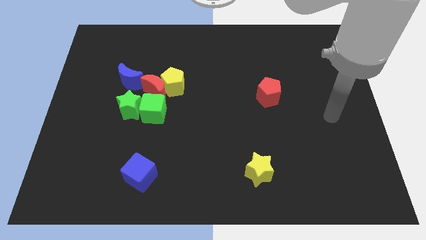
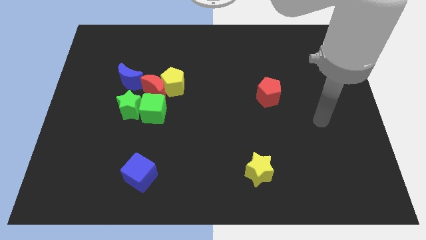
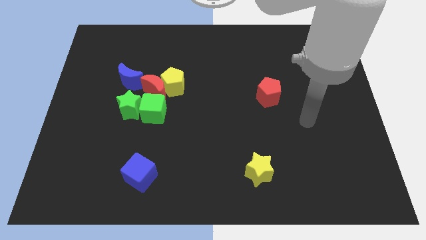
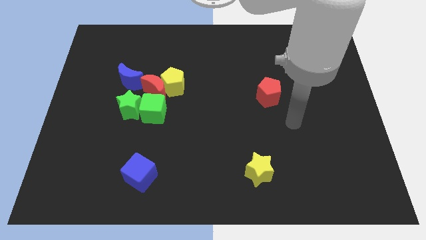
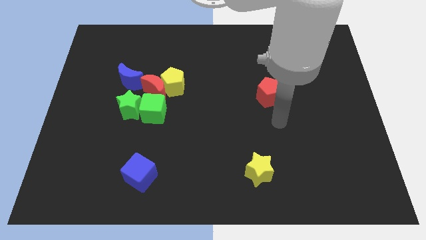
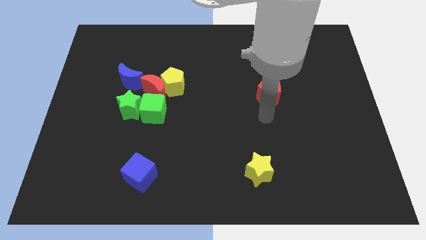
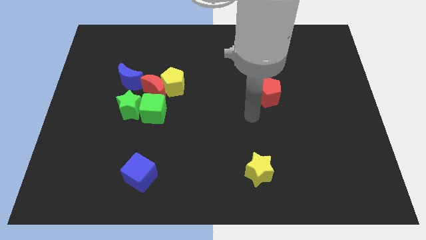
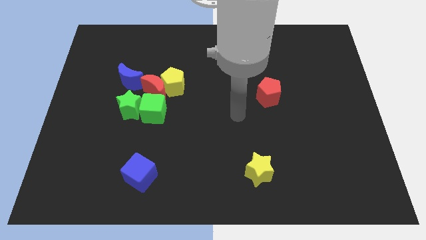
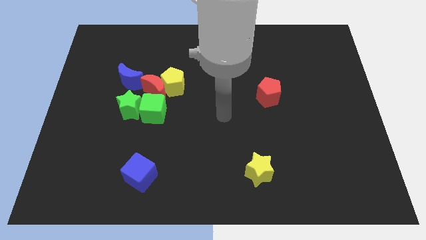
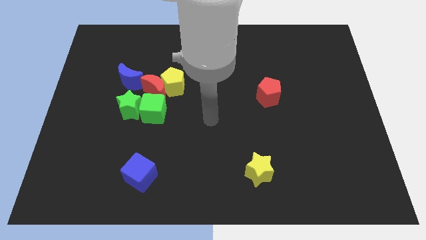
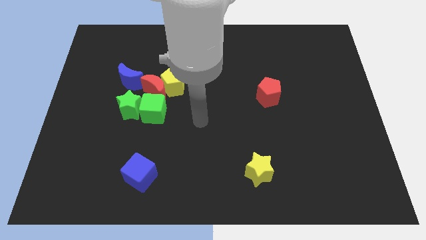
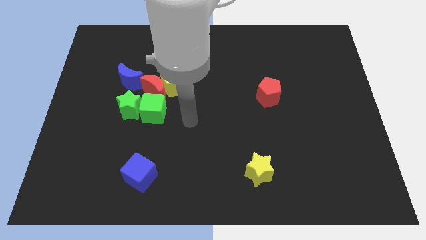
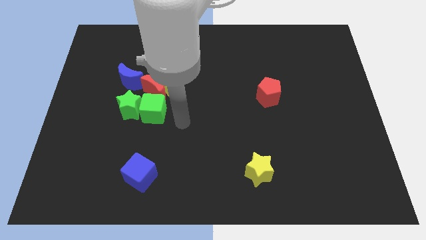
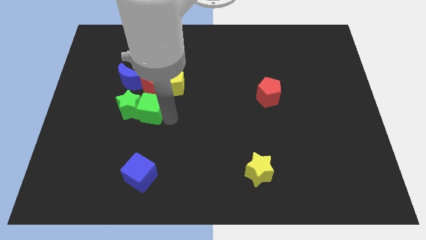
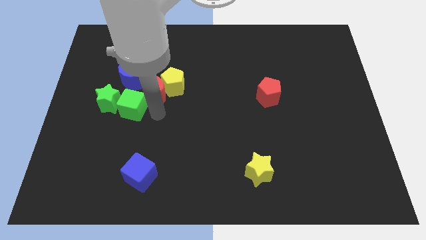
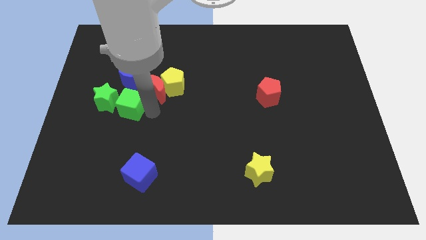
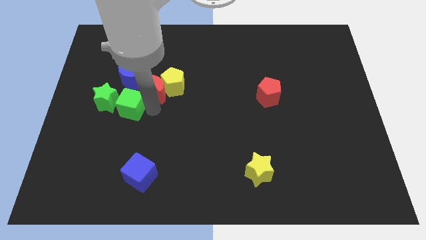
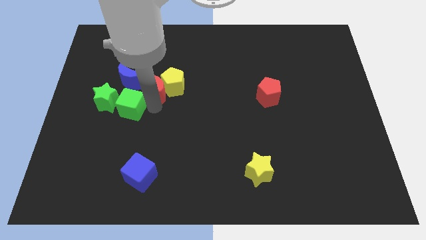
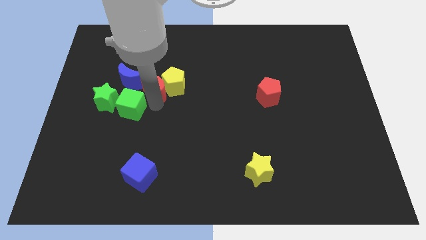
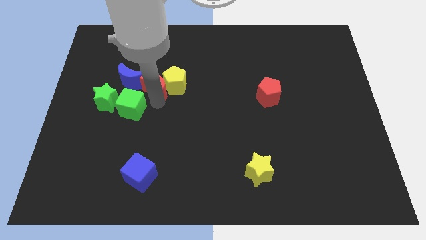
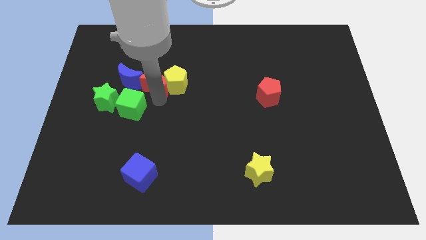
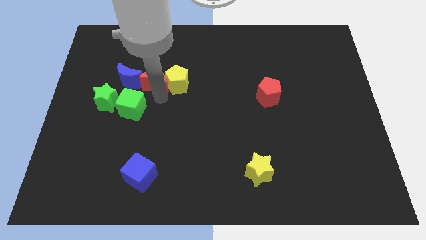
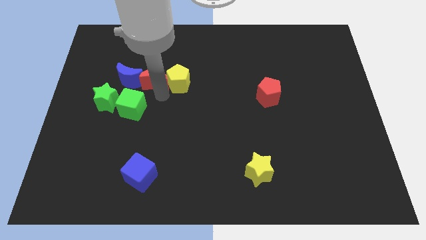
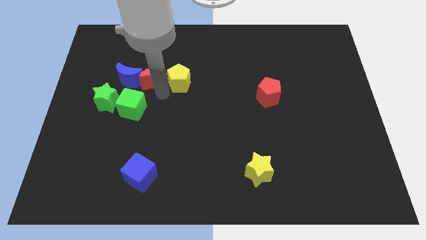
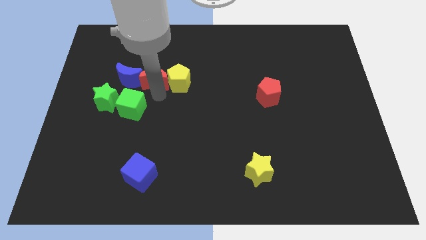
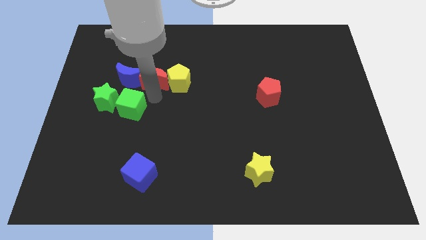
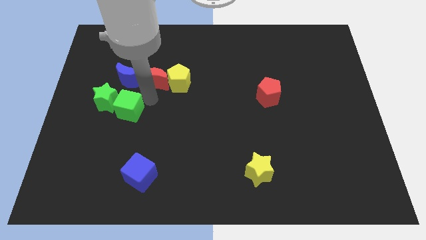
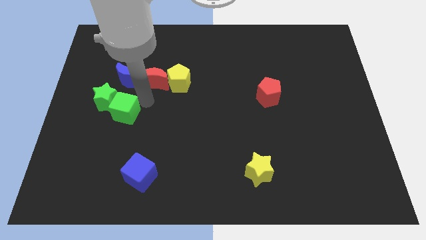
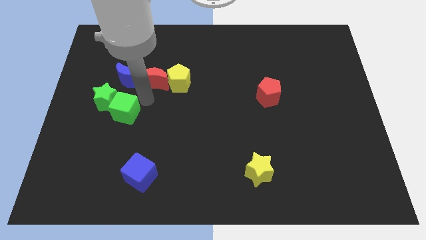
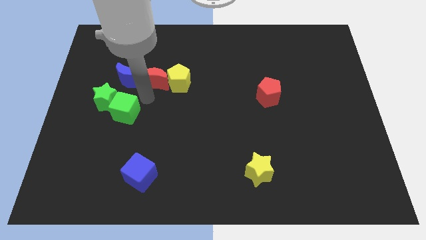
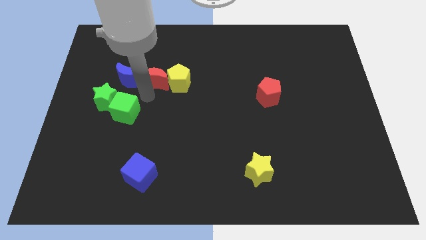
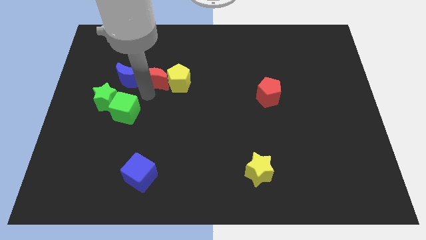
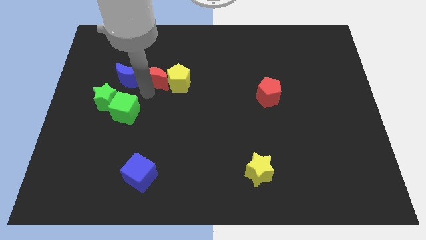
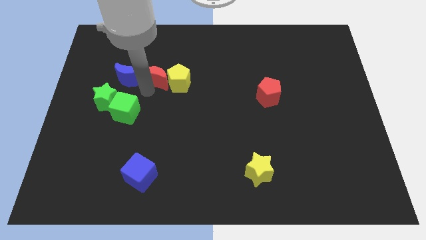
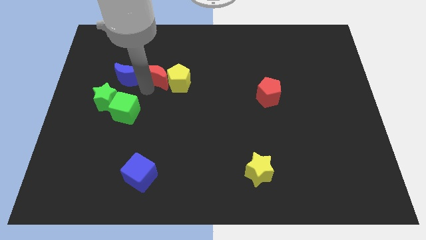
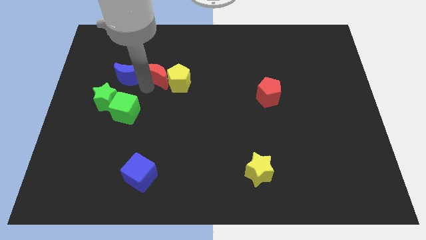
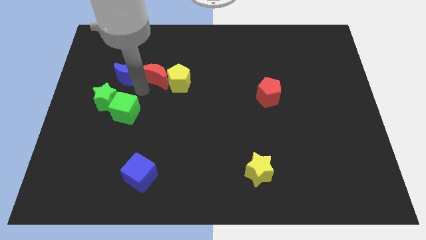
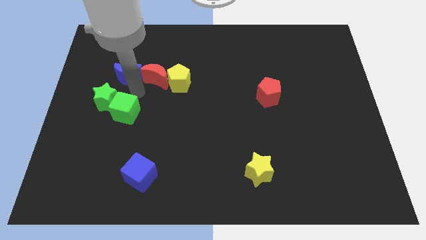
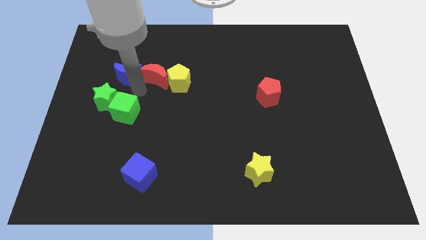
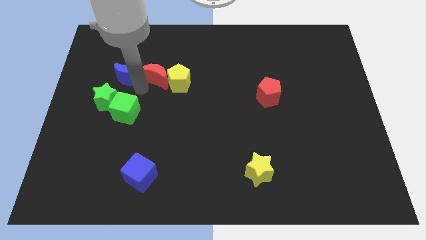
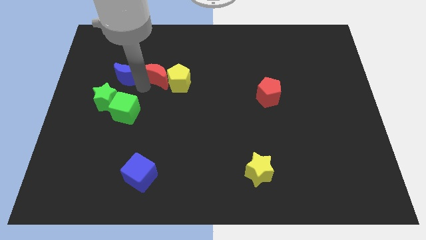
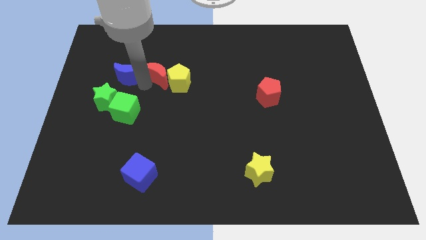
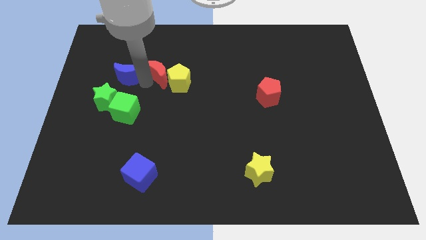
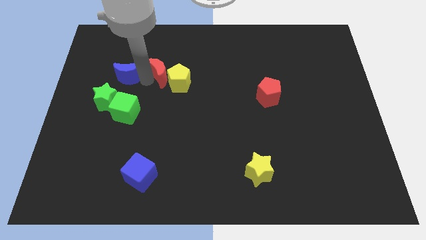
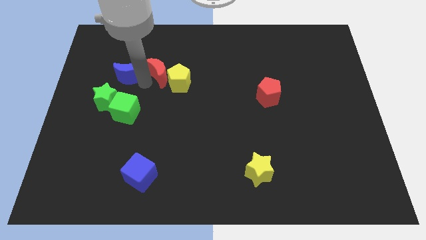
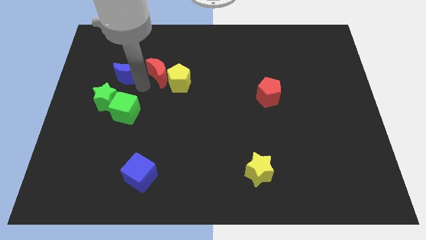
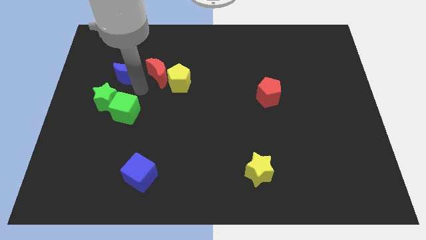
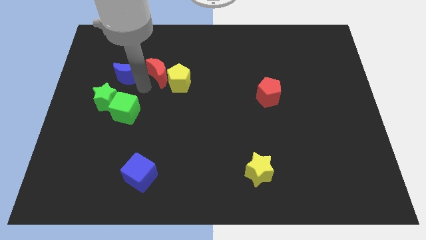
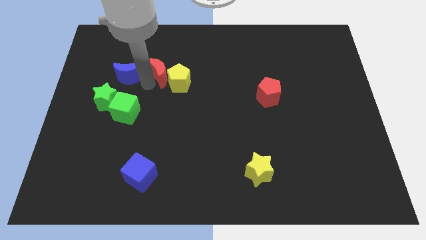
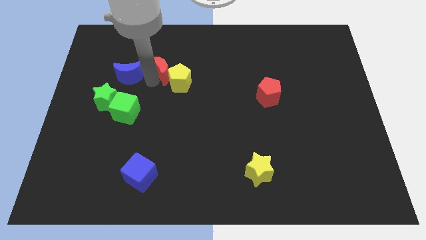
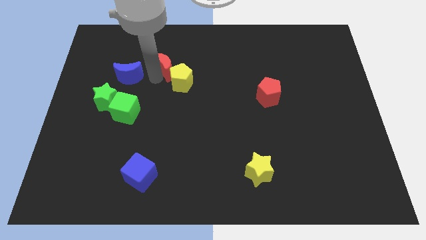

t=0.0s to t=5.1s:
move the red moon away from the clump

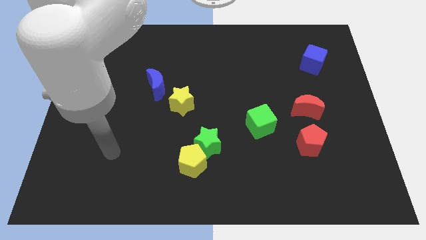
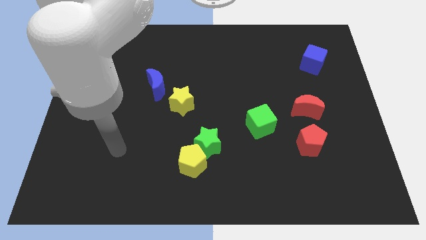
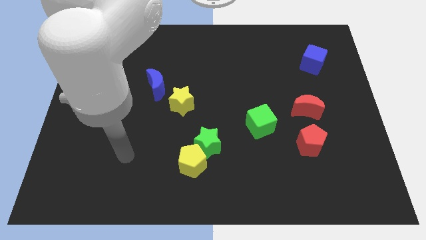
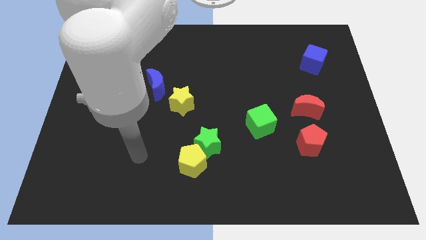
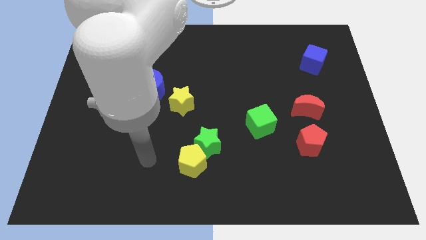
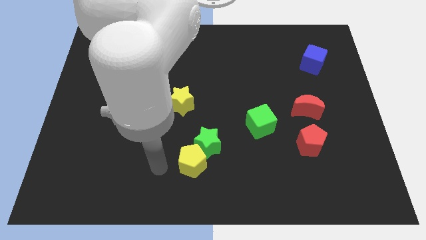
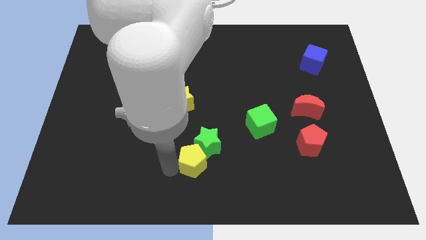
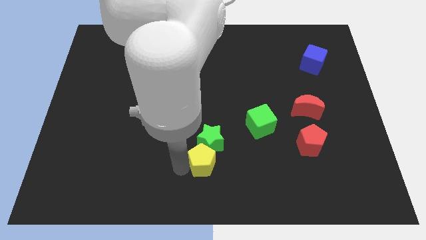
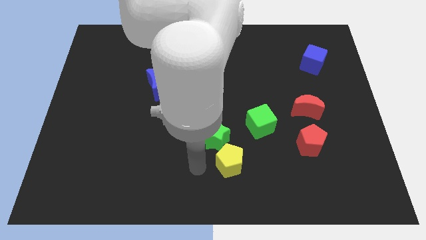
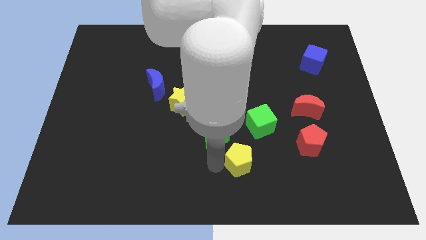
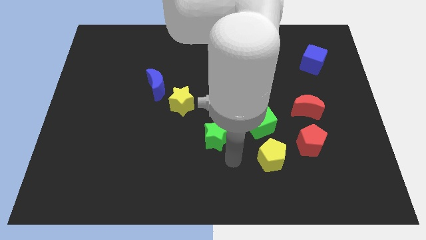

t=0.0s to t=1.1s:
separate the green star from the yellow pentagon

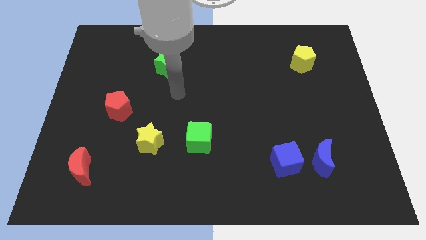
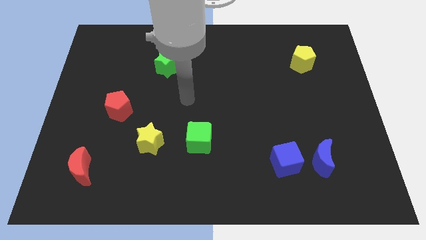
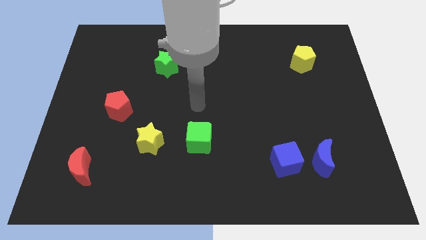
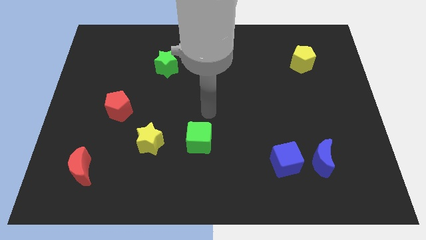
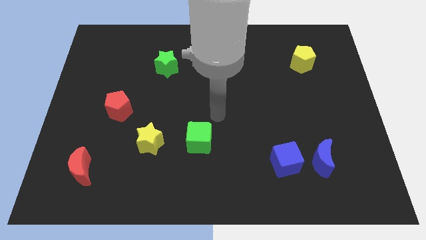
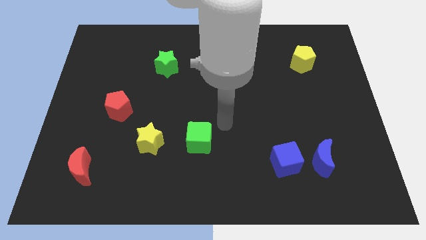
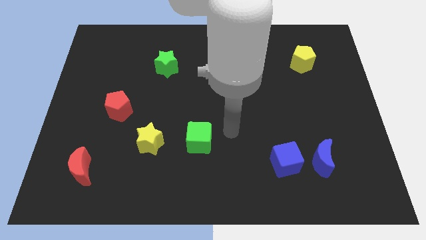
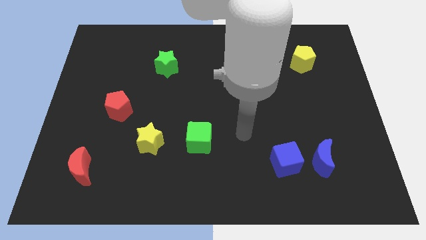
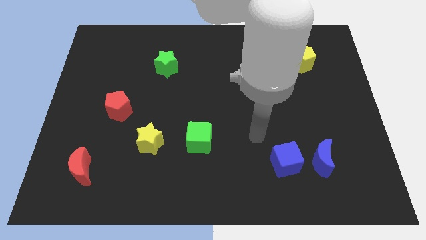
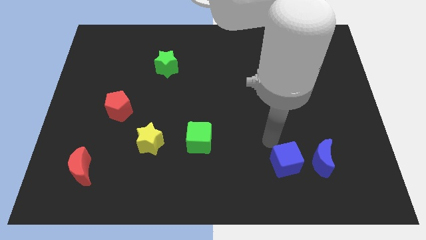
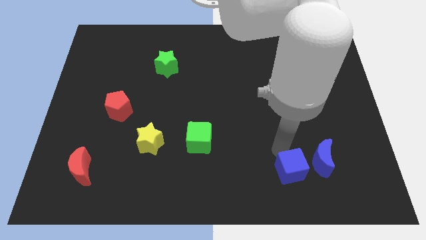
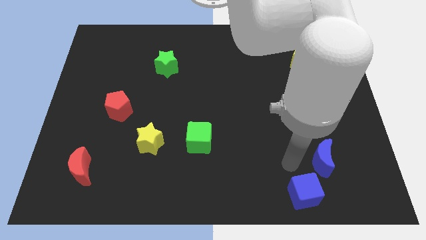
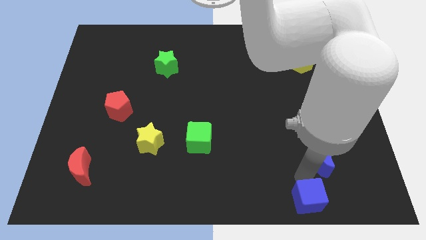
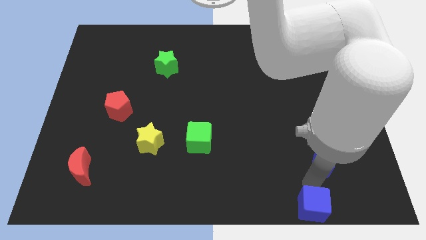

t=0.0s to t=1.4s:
pull the blue moon apart from the blue cube

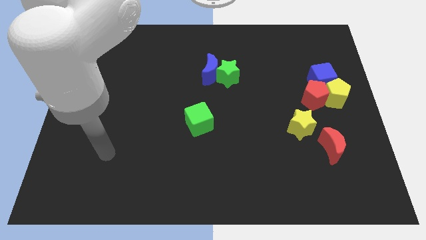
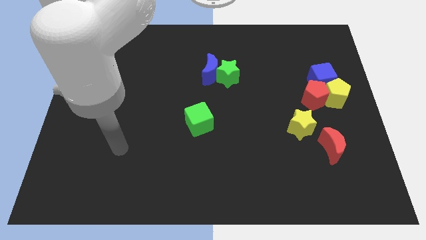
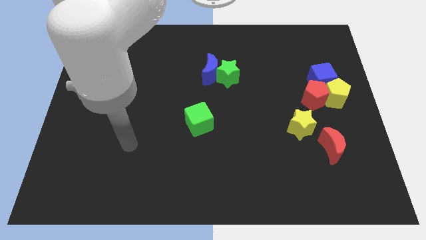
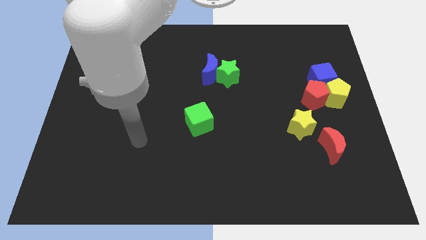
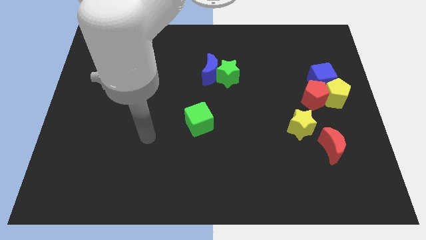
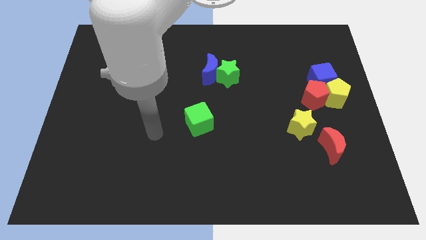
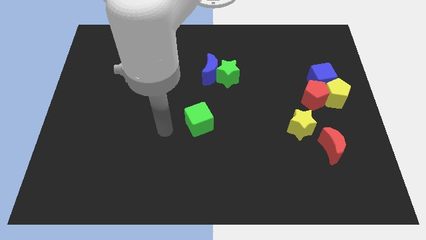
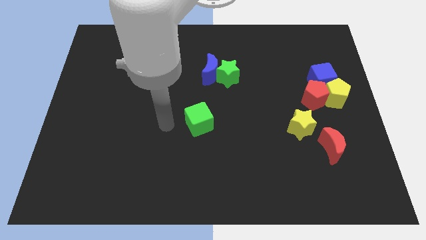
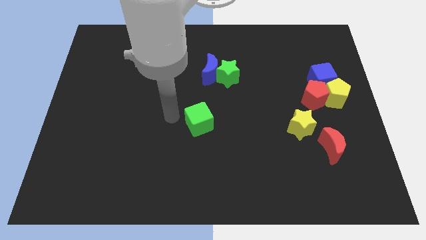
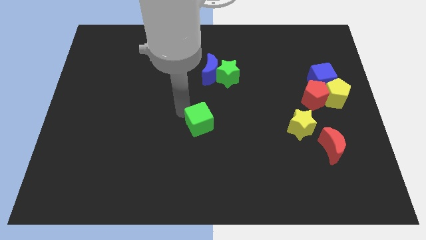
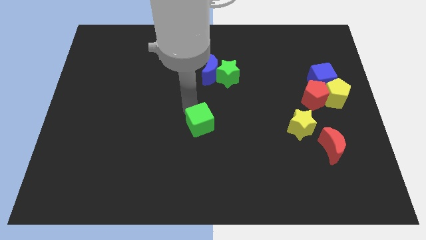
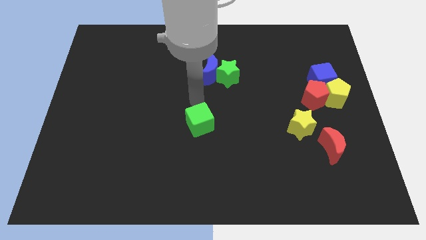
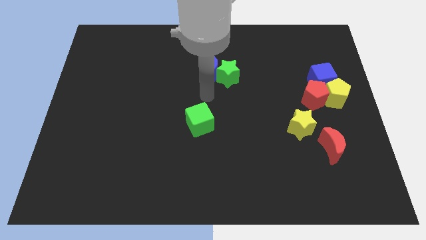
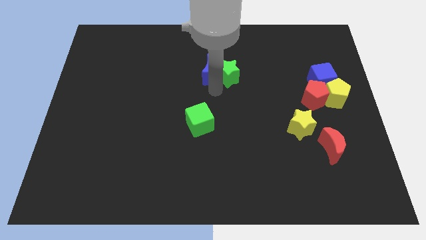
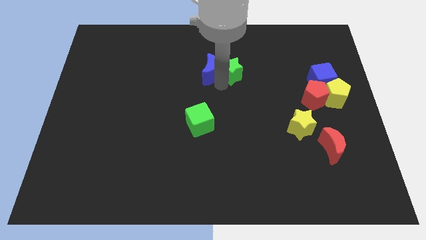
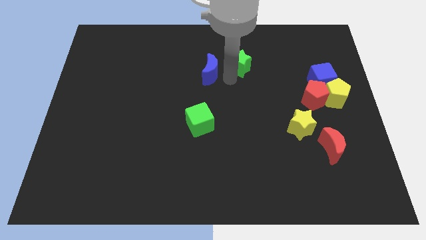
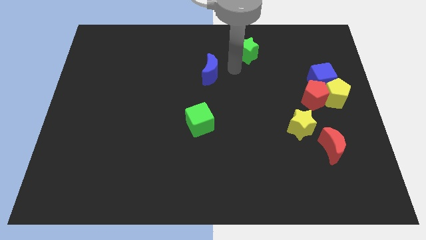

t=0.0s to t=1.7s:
separate the blue moon from the green star
